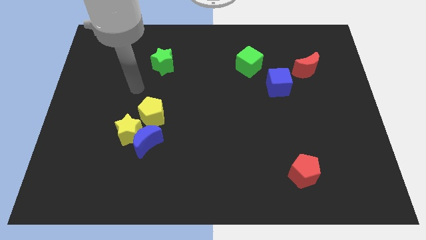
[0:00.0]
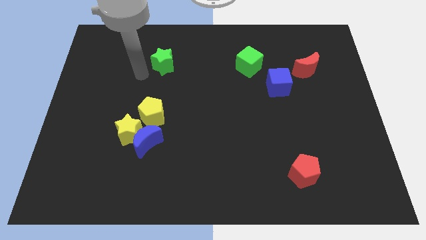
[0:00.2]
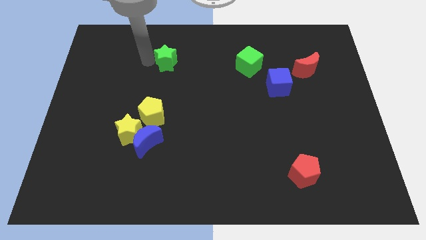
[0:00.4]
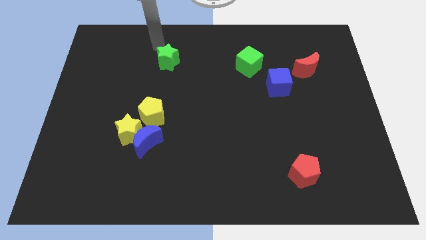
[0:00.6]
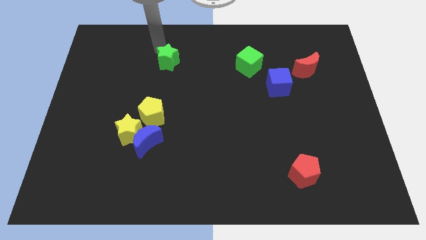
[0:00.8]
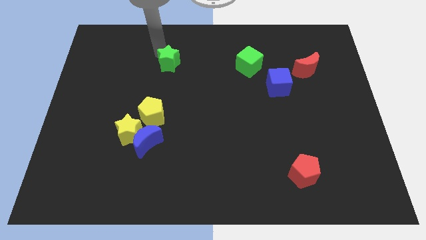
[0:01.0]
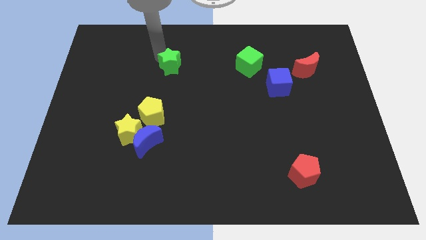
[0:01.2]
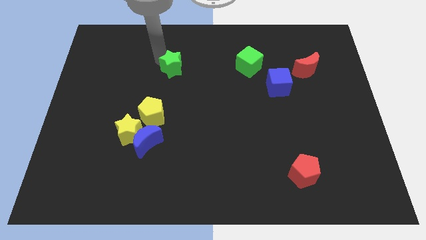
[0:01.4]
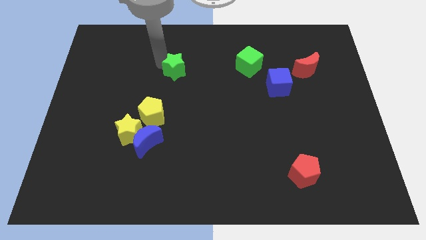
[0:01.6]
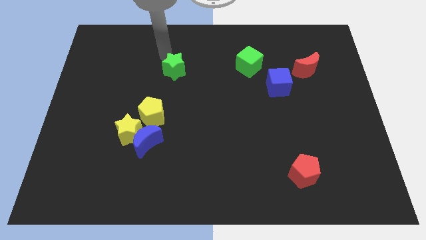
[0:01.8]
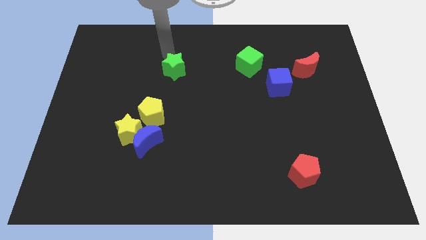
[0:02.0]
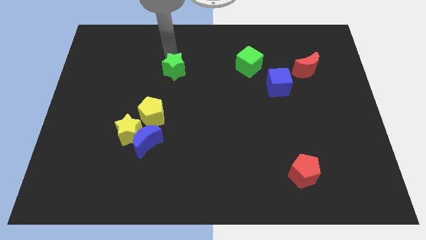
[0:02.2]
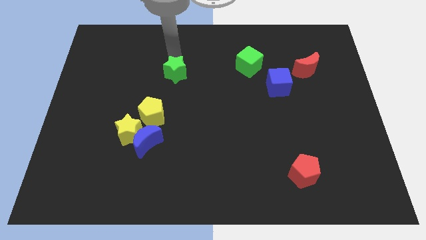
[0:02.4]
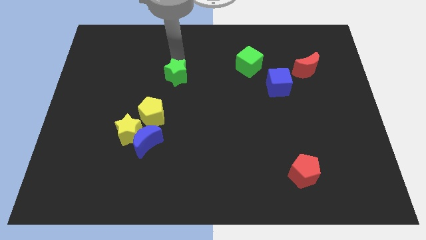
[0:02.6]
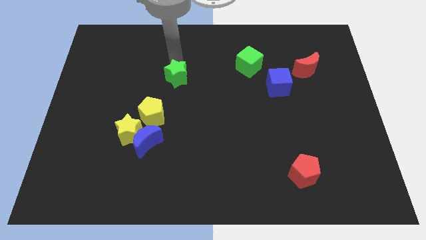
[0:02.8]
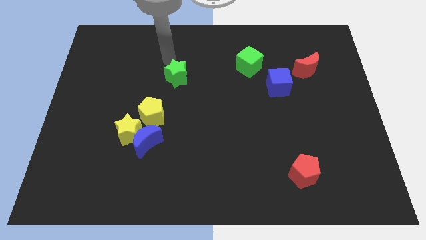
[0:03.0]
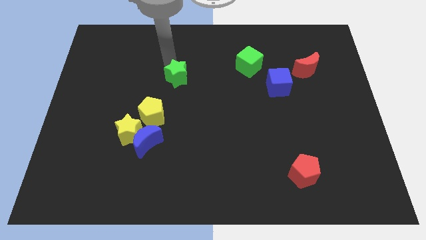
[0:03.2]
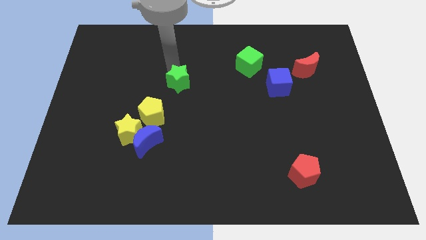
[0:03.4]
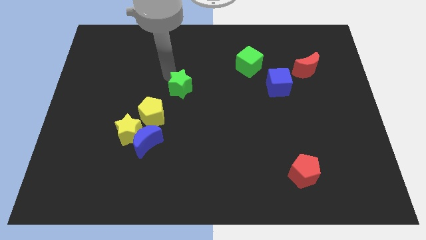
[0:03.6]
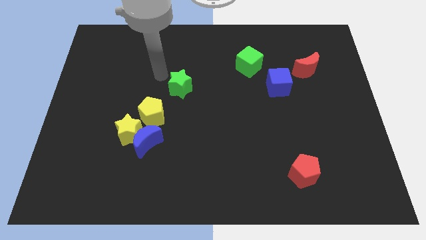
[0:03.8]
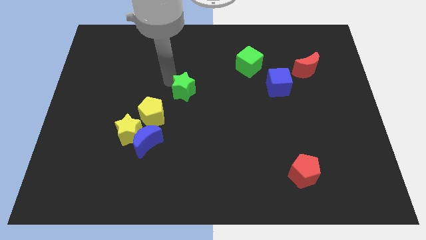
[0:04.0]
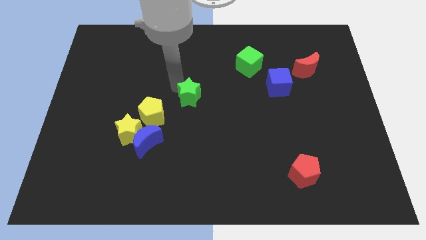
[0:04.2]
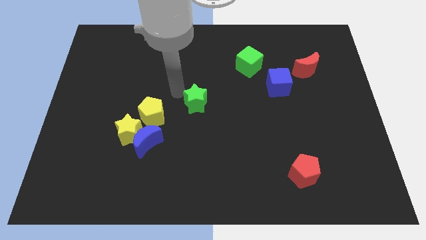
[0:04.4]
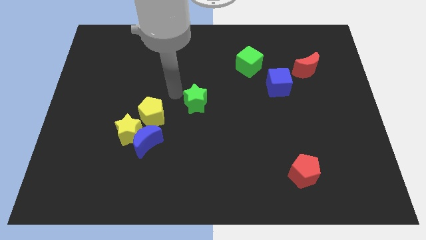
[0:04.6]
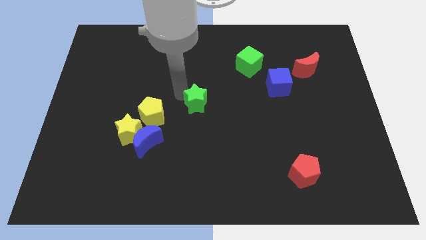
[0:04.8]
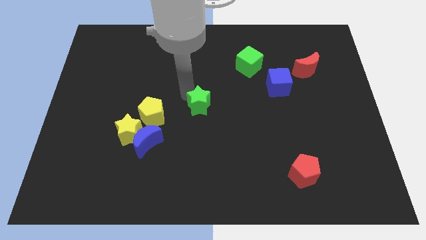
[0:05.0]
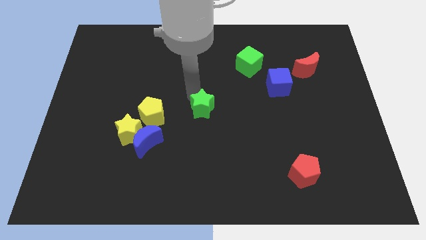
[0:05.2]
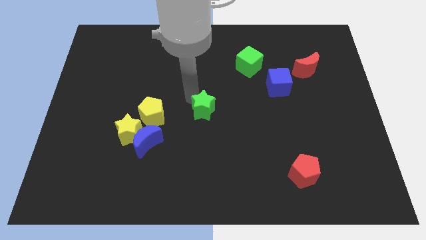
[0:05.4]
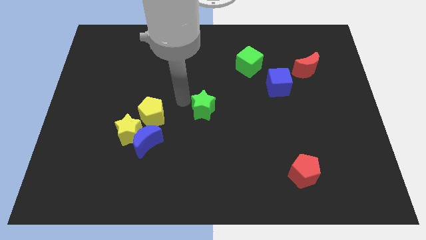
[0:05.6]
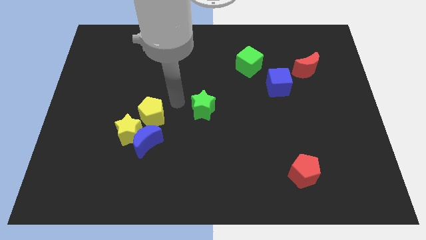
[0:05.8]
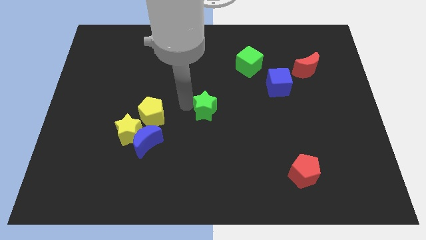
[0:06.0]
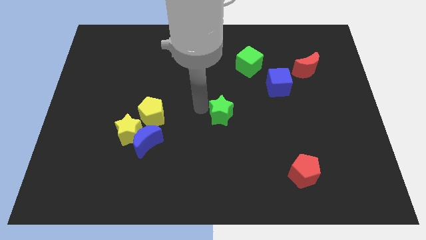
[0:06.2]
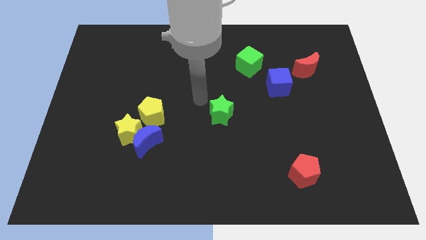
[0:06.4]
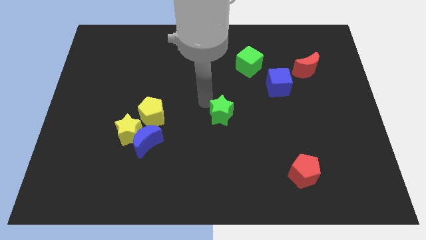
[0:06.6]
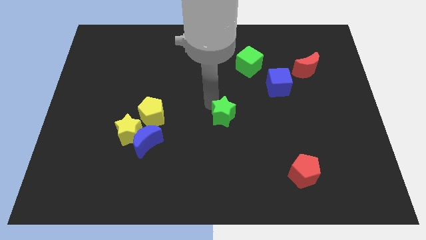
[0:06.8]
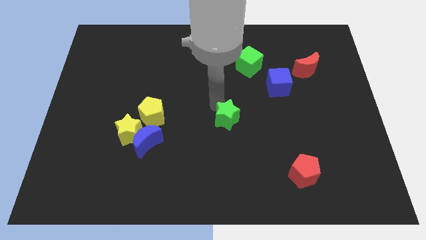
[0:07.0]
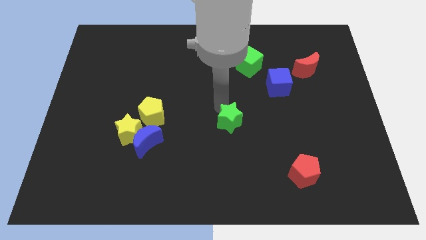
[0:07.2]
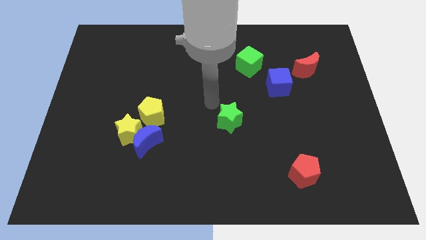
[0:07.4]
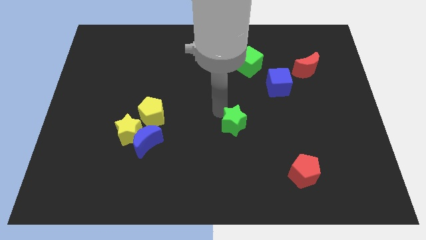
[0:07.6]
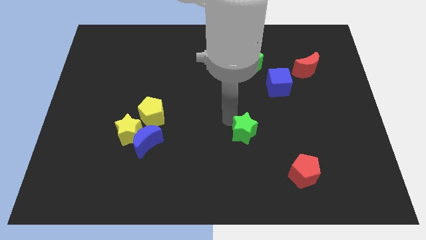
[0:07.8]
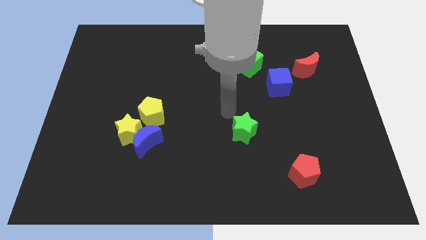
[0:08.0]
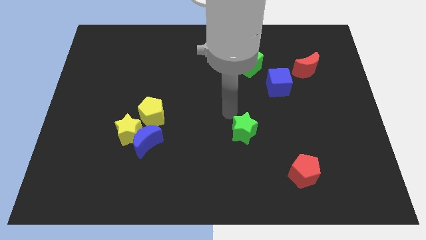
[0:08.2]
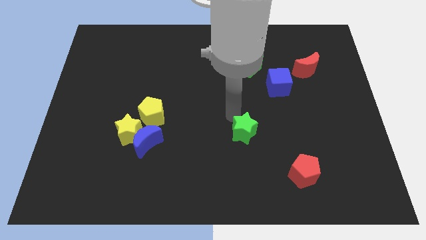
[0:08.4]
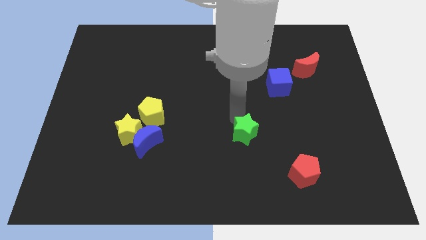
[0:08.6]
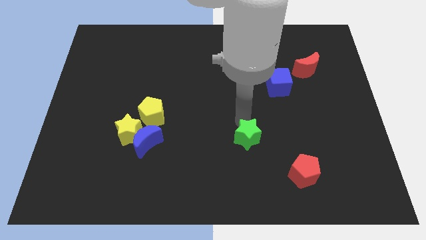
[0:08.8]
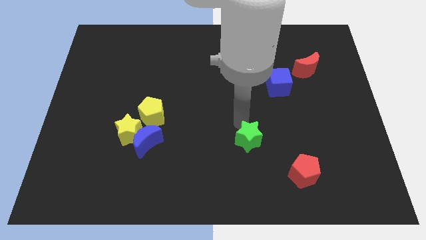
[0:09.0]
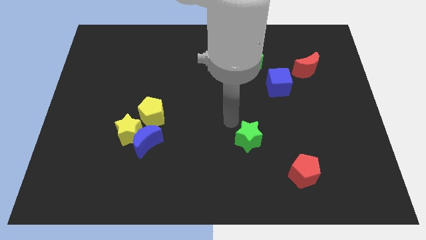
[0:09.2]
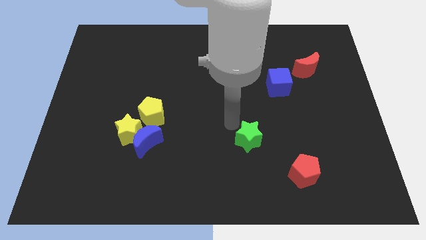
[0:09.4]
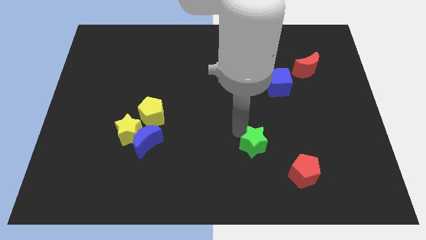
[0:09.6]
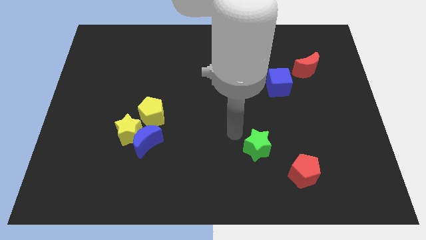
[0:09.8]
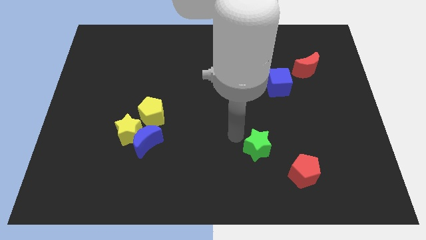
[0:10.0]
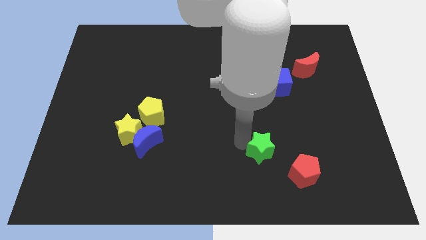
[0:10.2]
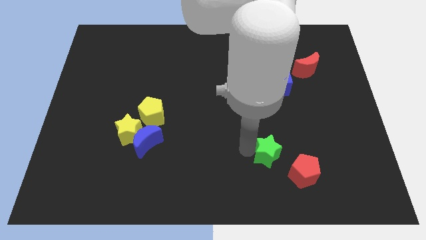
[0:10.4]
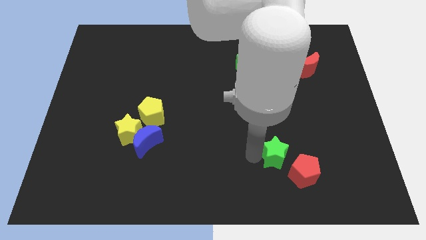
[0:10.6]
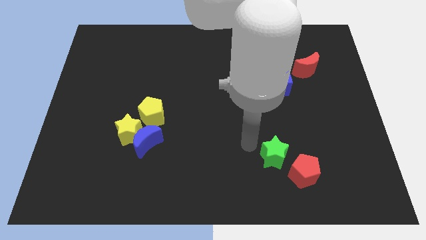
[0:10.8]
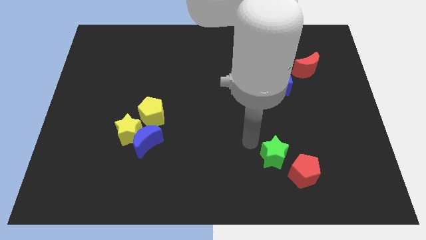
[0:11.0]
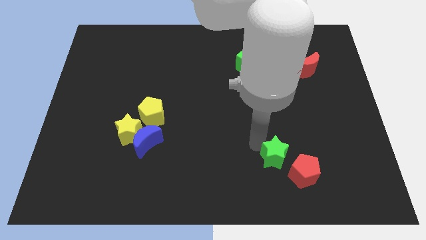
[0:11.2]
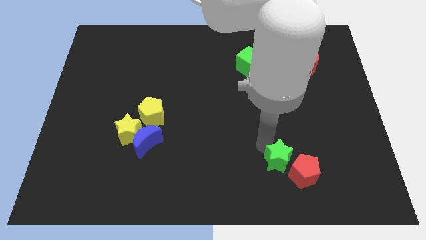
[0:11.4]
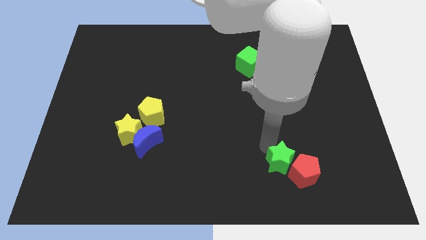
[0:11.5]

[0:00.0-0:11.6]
slide the green star next to the red pentagon

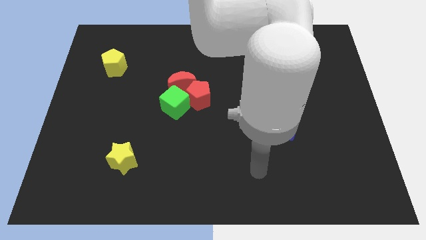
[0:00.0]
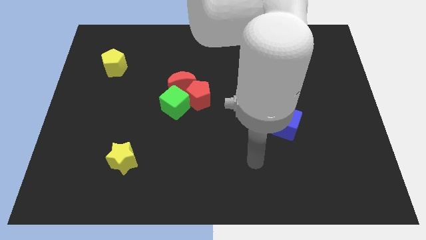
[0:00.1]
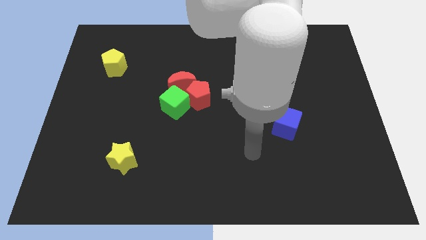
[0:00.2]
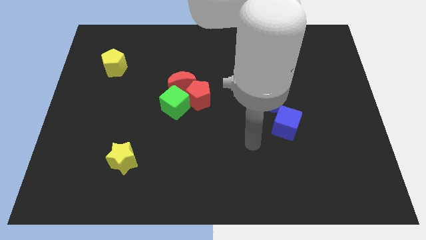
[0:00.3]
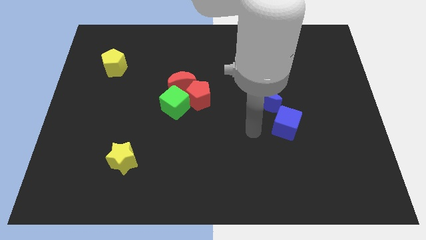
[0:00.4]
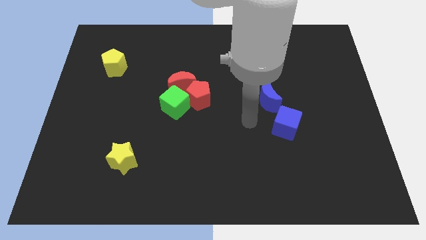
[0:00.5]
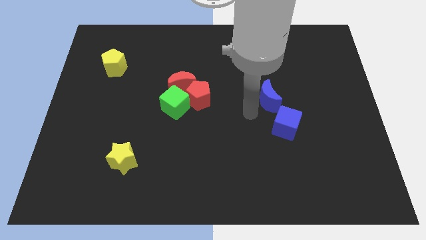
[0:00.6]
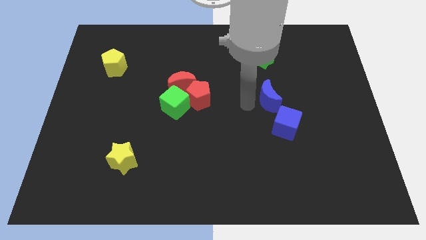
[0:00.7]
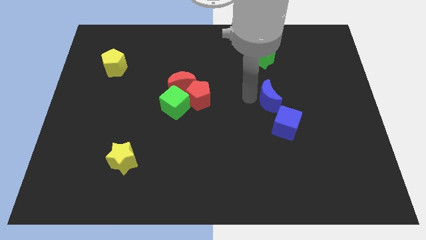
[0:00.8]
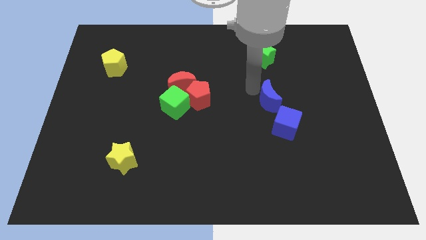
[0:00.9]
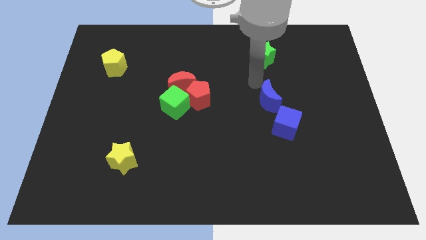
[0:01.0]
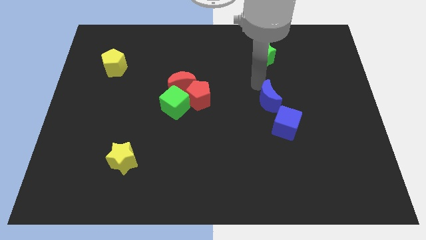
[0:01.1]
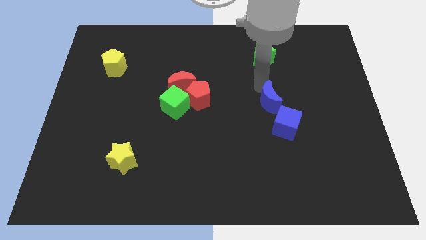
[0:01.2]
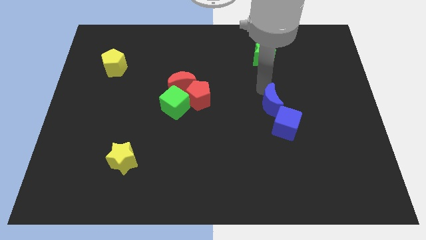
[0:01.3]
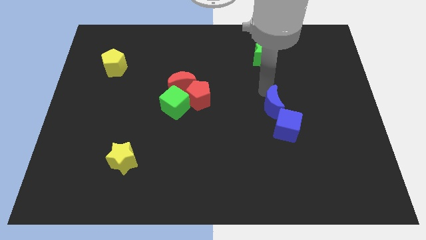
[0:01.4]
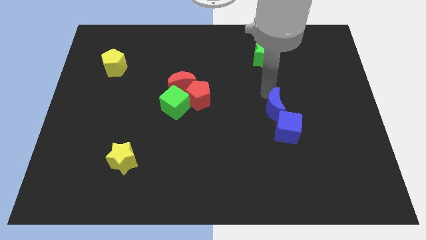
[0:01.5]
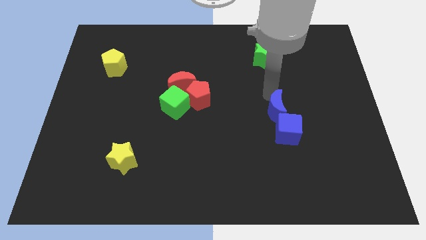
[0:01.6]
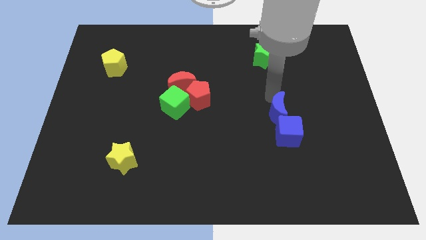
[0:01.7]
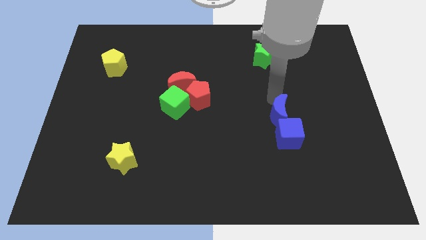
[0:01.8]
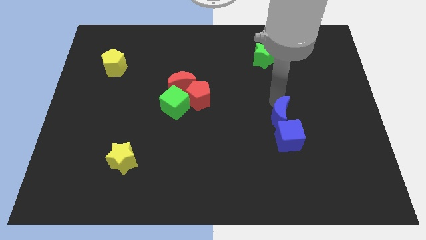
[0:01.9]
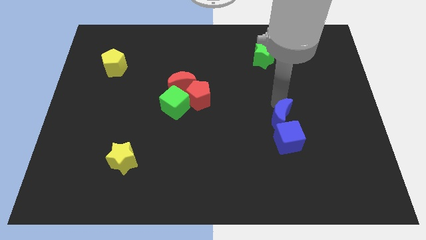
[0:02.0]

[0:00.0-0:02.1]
put the blue moon towards the blue cube
